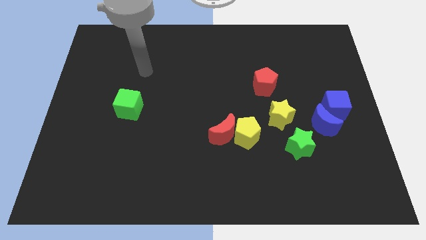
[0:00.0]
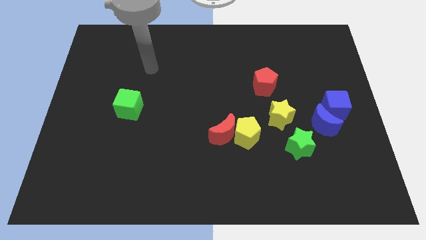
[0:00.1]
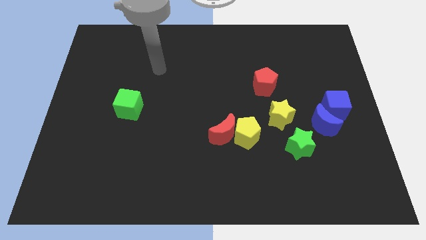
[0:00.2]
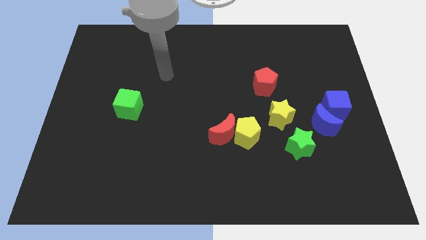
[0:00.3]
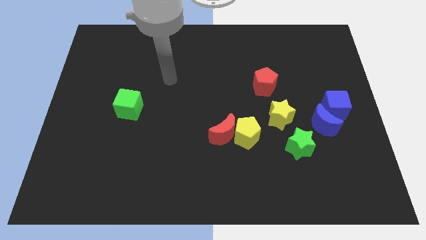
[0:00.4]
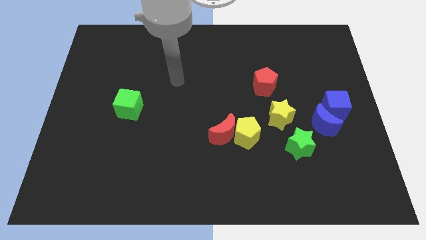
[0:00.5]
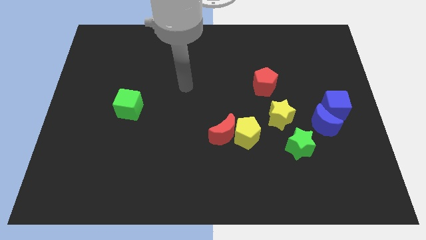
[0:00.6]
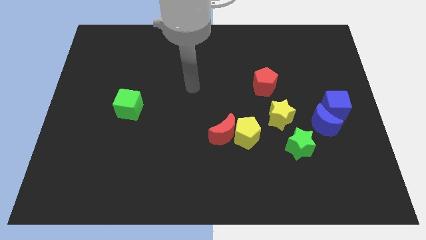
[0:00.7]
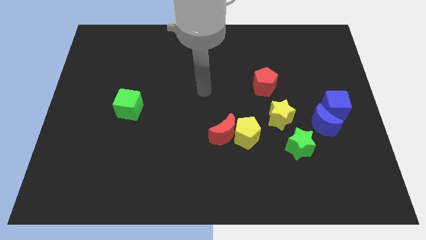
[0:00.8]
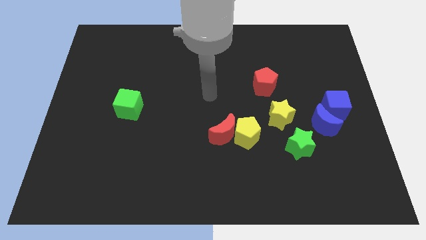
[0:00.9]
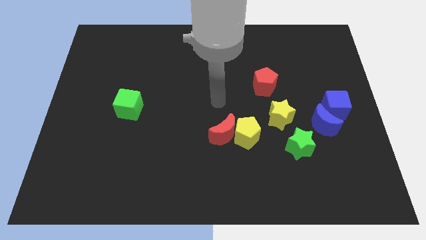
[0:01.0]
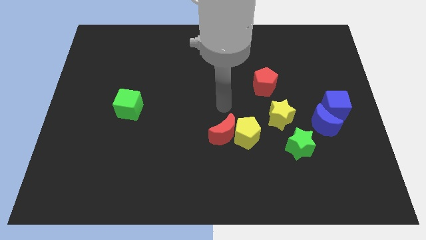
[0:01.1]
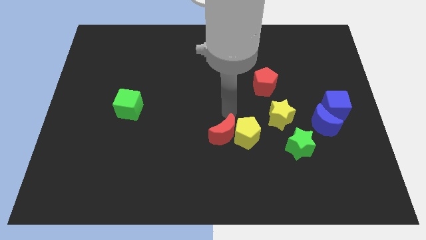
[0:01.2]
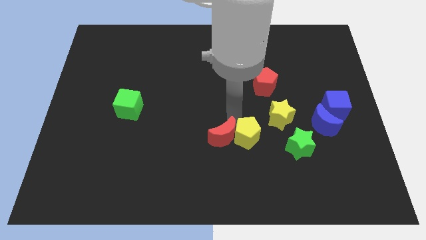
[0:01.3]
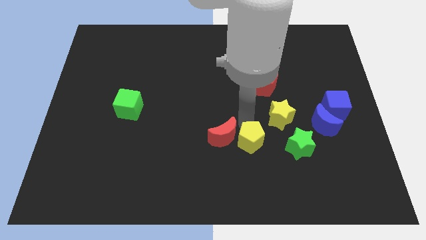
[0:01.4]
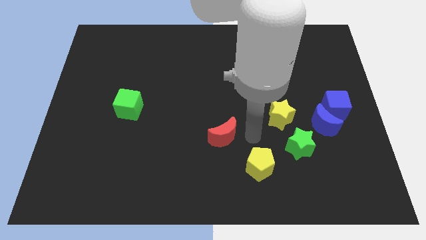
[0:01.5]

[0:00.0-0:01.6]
separate the red moon from the yellow pentagon

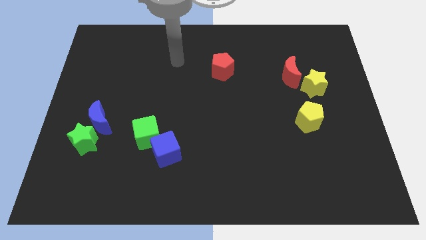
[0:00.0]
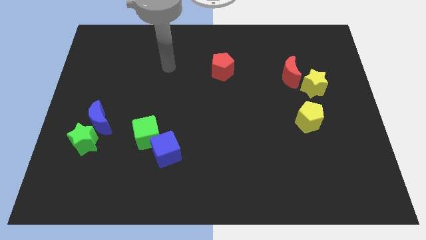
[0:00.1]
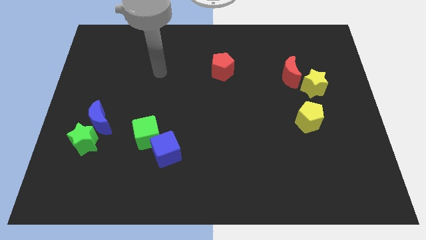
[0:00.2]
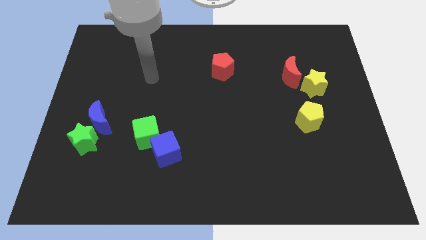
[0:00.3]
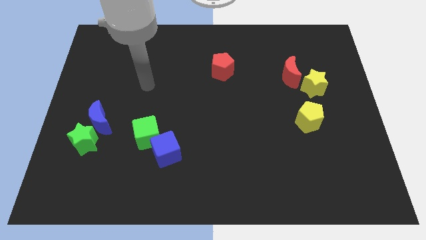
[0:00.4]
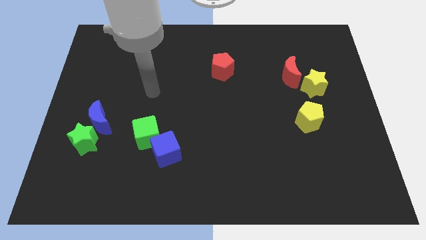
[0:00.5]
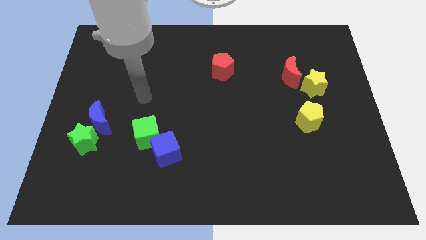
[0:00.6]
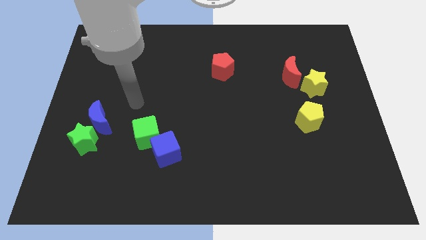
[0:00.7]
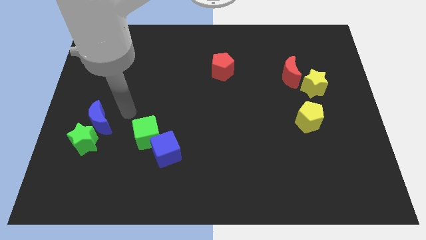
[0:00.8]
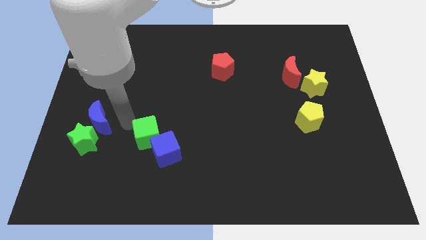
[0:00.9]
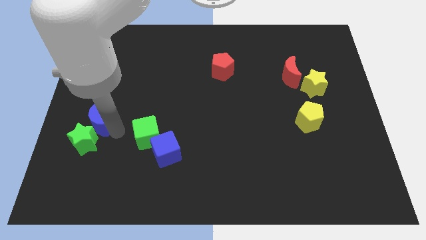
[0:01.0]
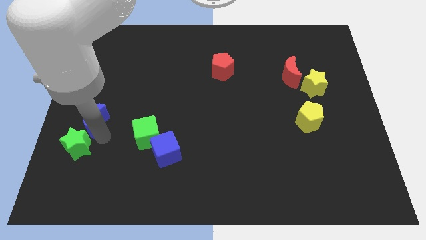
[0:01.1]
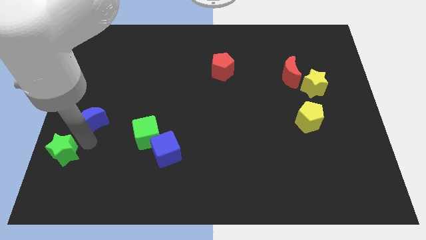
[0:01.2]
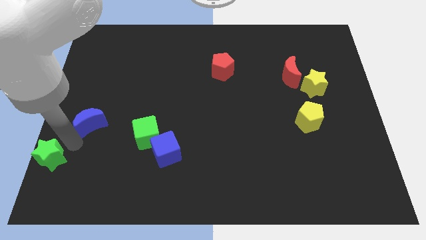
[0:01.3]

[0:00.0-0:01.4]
pull the blue moon apart from the green star

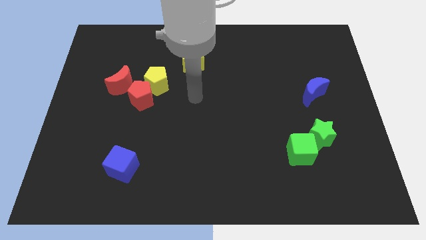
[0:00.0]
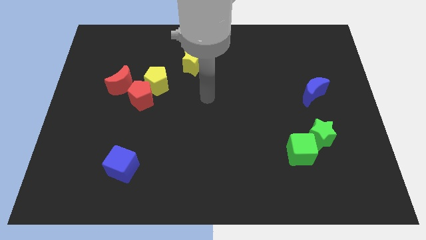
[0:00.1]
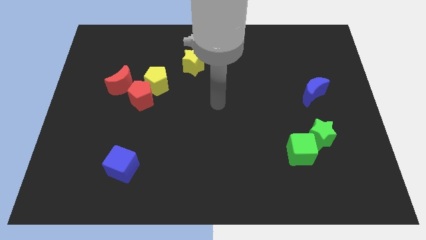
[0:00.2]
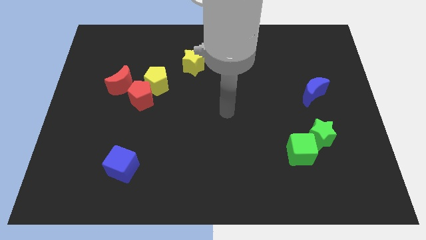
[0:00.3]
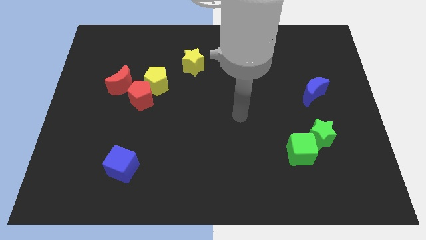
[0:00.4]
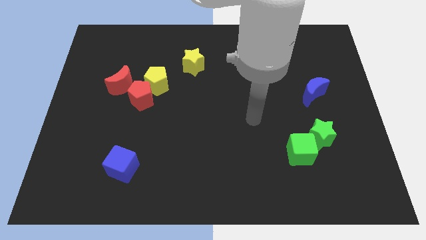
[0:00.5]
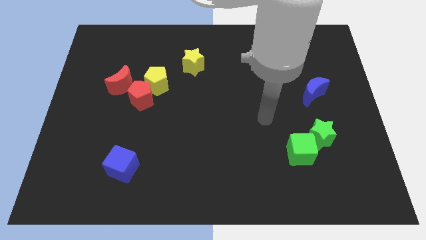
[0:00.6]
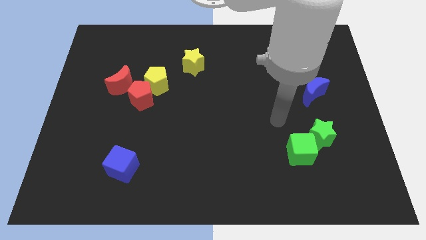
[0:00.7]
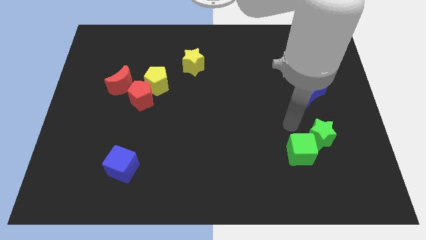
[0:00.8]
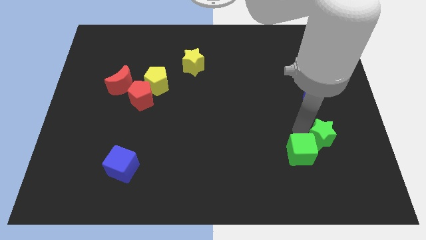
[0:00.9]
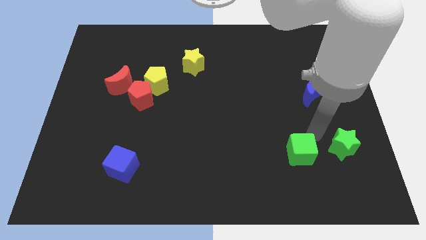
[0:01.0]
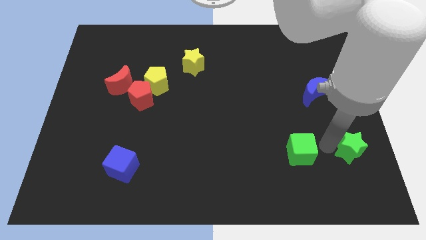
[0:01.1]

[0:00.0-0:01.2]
separate the green cube from the green star

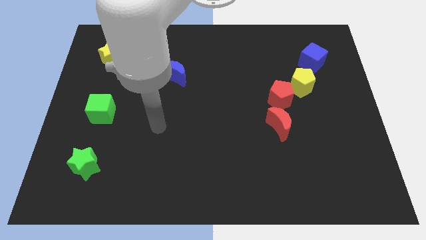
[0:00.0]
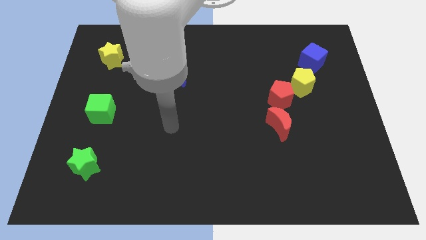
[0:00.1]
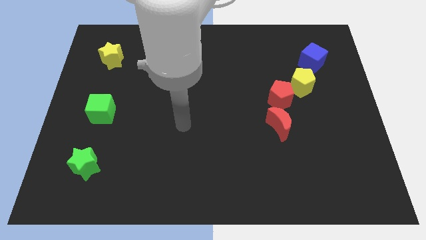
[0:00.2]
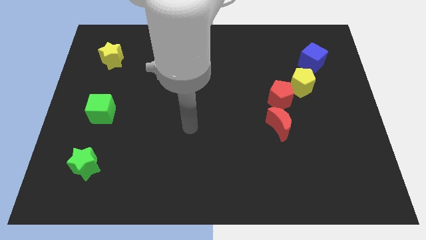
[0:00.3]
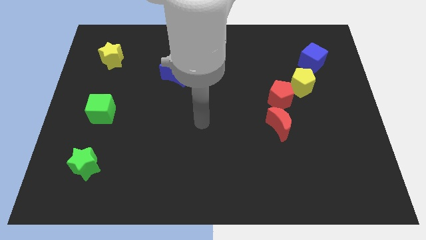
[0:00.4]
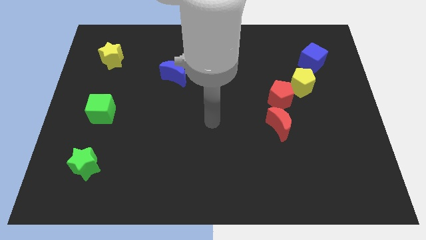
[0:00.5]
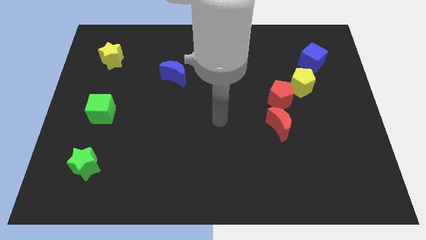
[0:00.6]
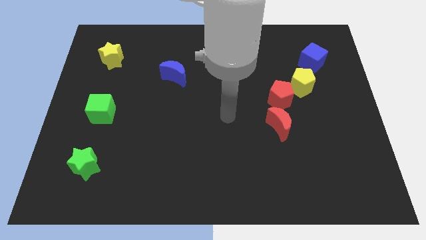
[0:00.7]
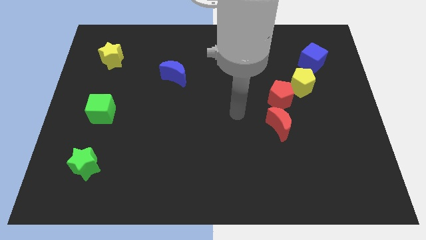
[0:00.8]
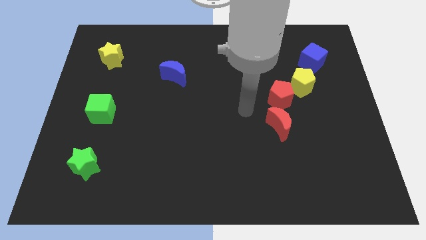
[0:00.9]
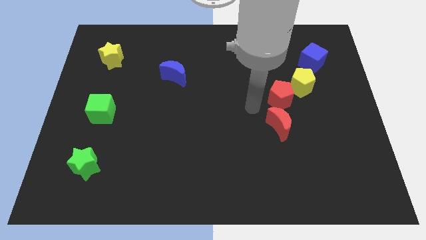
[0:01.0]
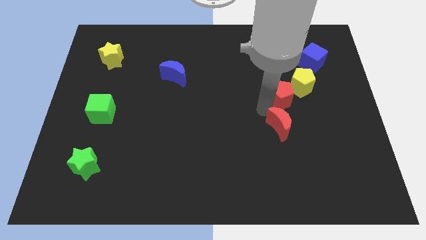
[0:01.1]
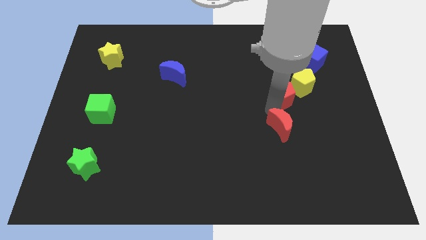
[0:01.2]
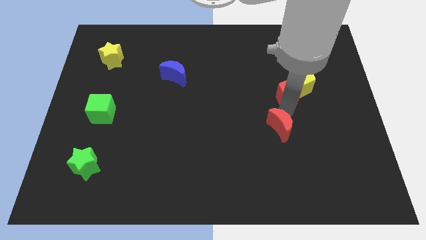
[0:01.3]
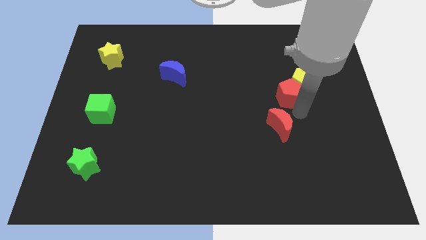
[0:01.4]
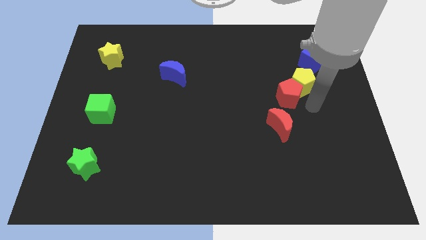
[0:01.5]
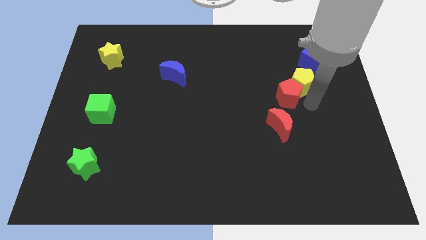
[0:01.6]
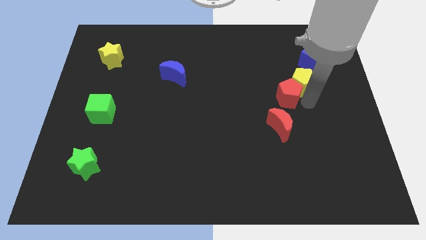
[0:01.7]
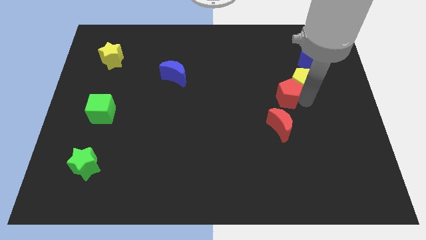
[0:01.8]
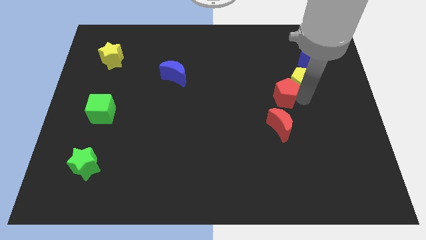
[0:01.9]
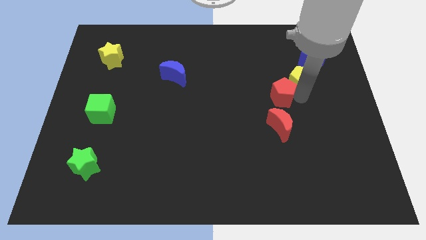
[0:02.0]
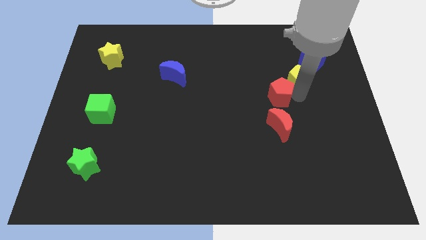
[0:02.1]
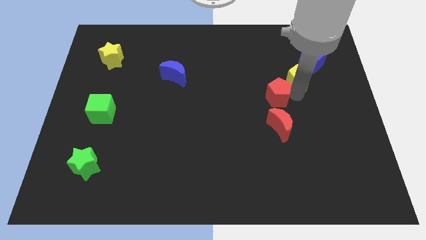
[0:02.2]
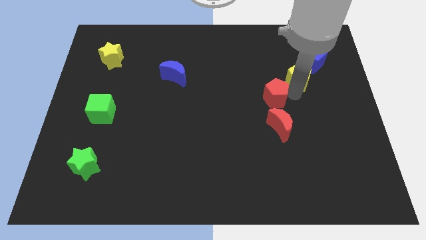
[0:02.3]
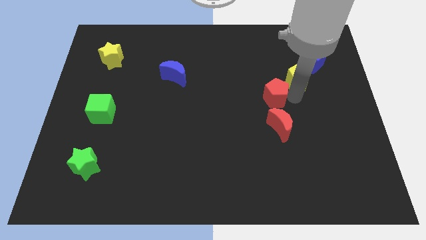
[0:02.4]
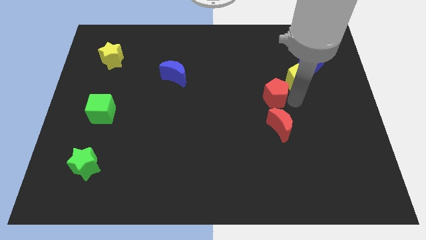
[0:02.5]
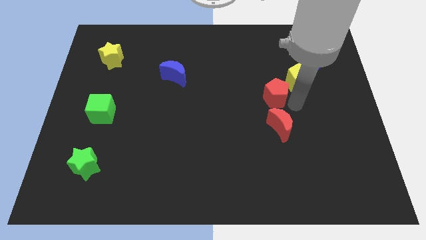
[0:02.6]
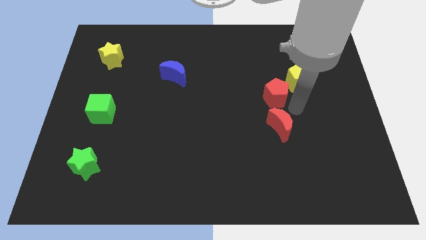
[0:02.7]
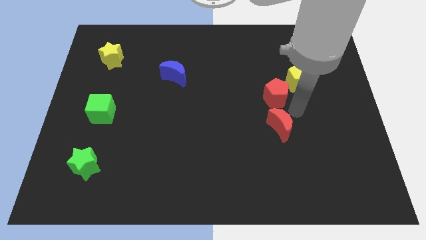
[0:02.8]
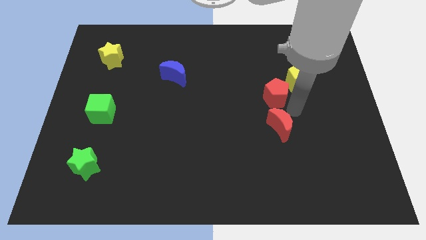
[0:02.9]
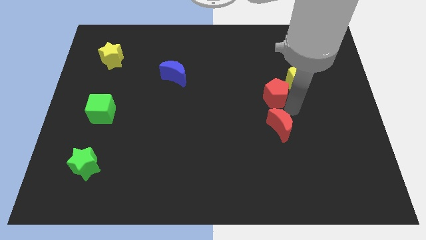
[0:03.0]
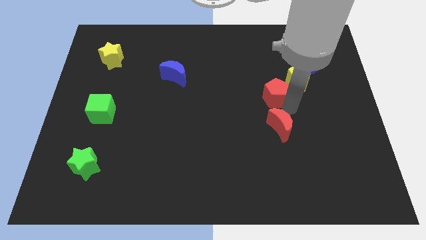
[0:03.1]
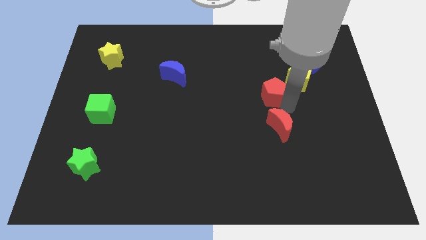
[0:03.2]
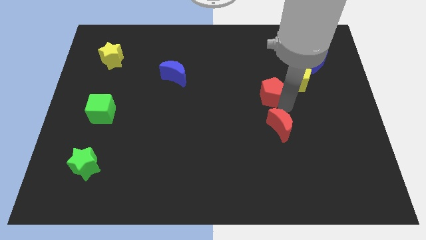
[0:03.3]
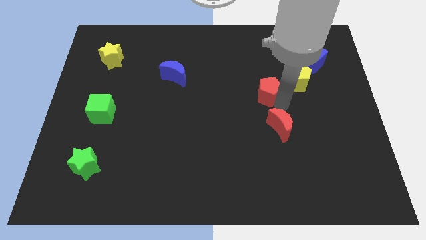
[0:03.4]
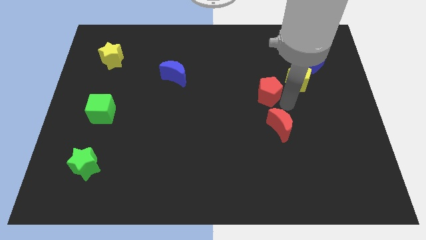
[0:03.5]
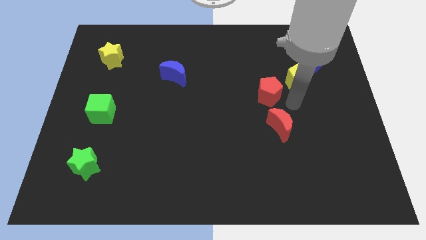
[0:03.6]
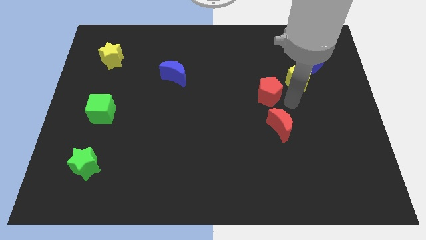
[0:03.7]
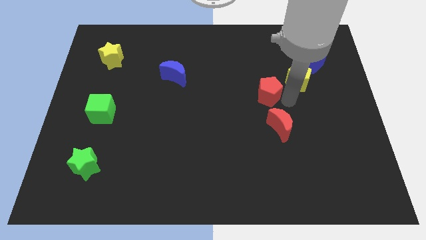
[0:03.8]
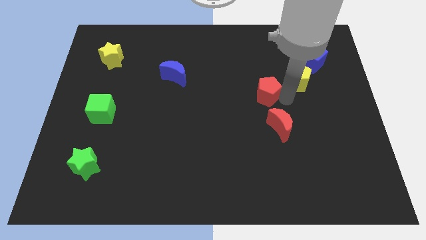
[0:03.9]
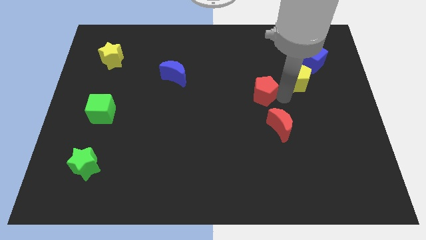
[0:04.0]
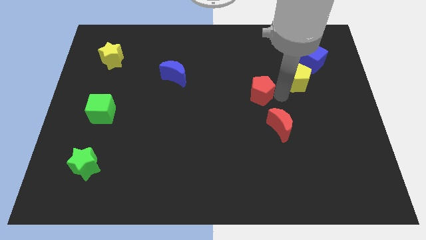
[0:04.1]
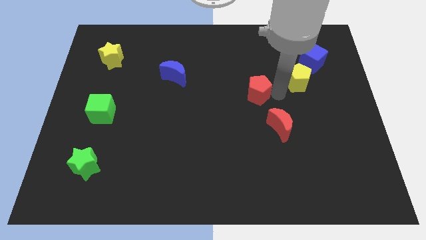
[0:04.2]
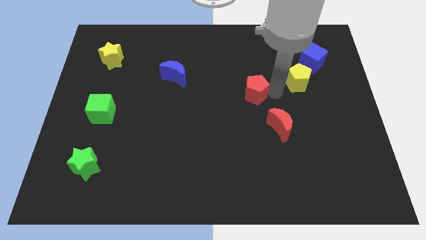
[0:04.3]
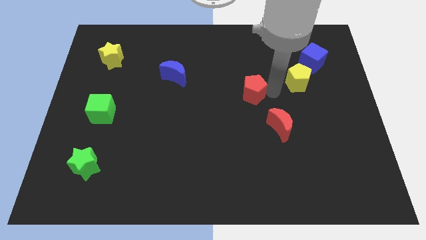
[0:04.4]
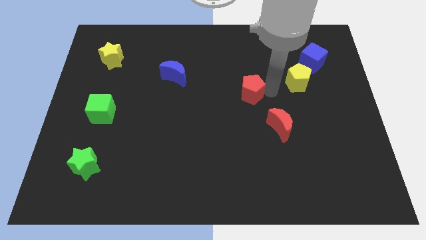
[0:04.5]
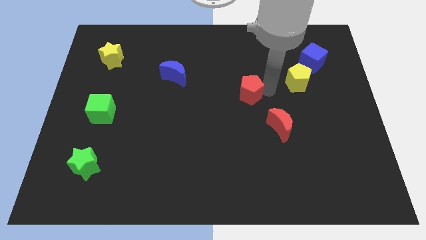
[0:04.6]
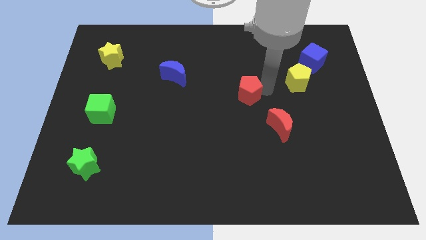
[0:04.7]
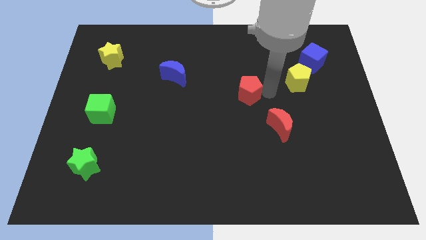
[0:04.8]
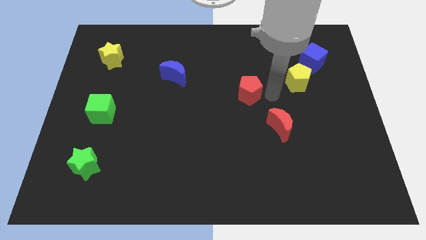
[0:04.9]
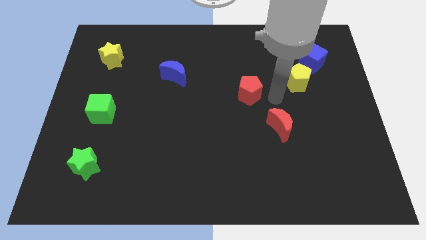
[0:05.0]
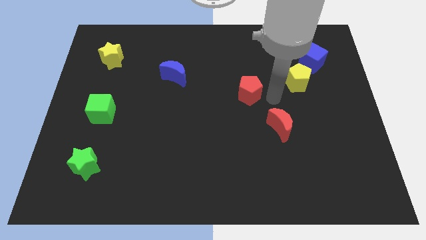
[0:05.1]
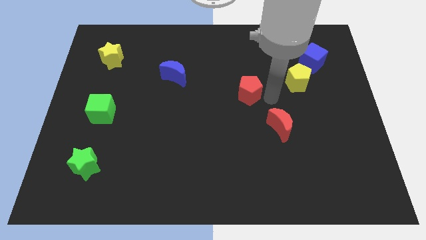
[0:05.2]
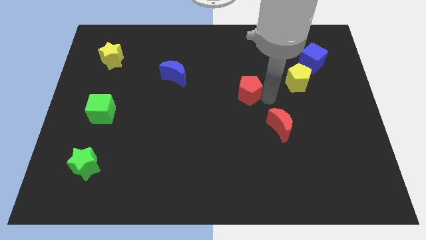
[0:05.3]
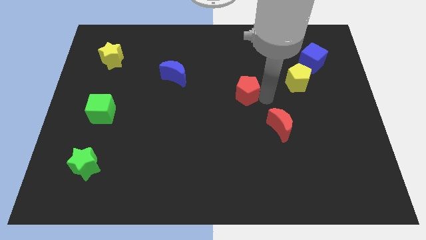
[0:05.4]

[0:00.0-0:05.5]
separate the red pentagon from the yellow pentagon and red moon
